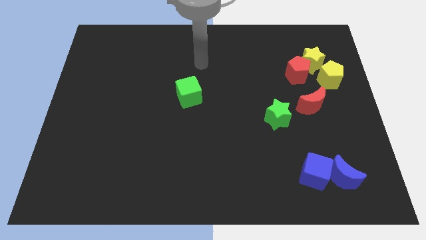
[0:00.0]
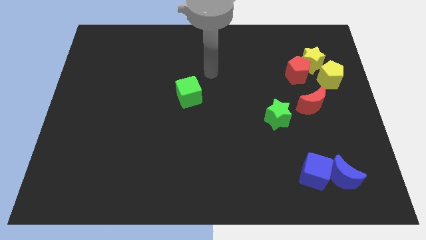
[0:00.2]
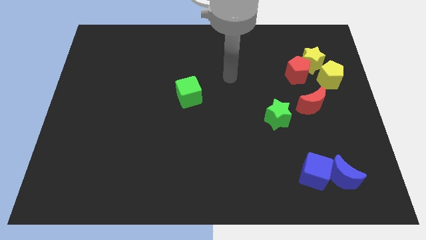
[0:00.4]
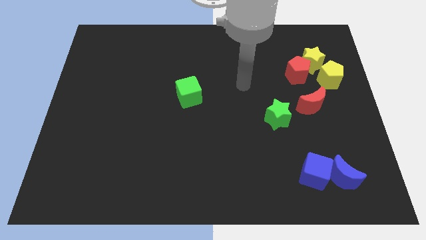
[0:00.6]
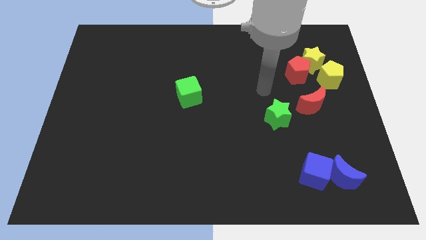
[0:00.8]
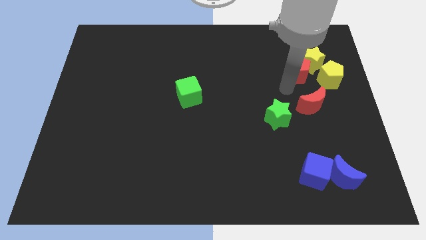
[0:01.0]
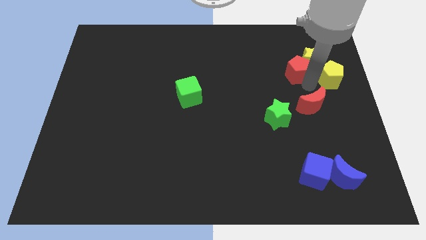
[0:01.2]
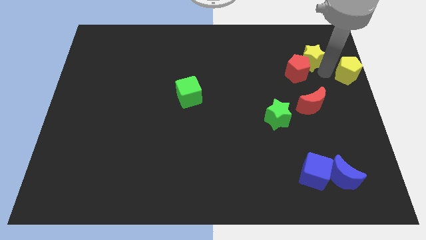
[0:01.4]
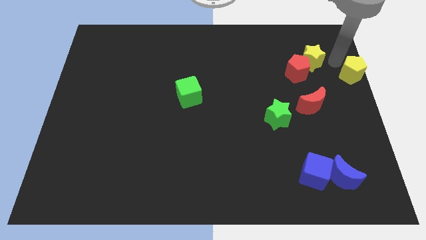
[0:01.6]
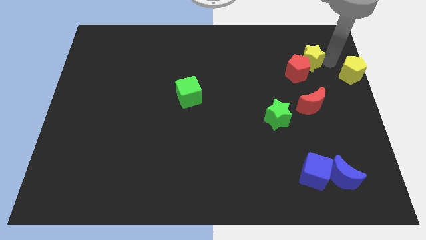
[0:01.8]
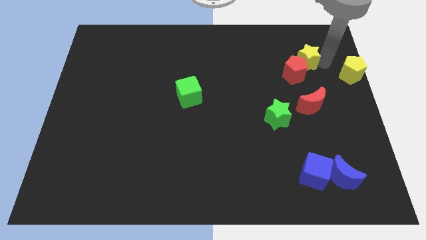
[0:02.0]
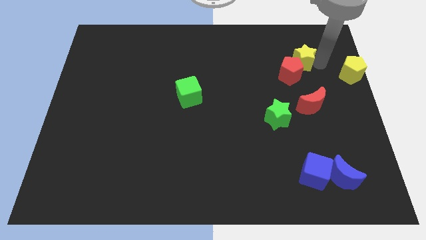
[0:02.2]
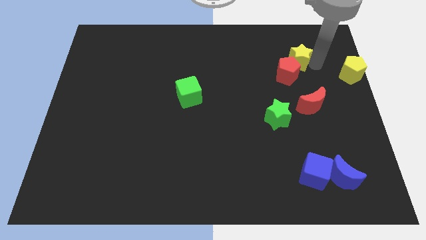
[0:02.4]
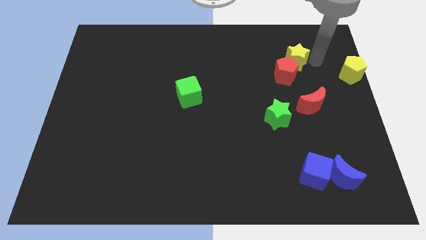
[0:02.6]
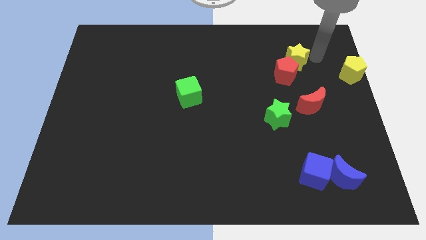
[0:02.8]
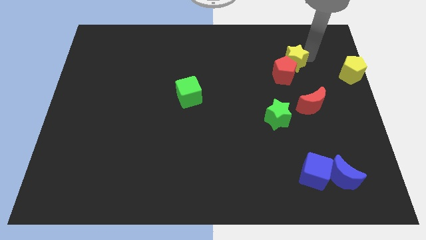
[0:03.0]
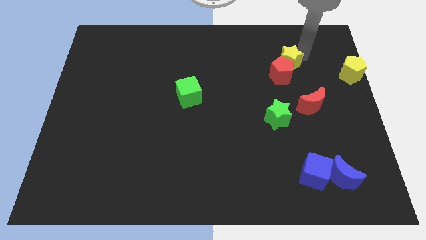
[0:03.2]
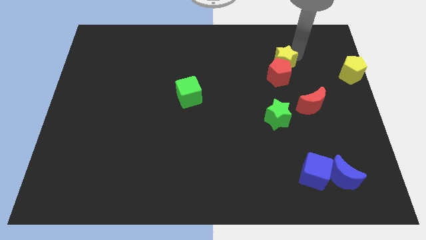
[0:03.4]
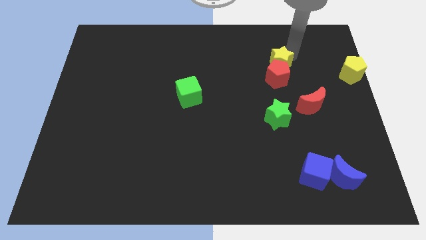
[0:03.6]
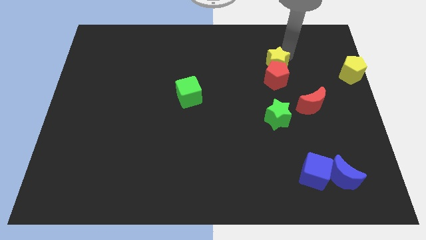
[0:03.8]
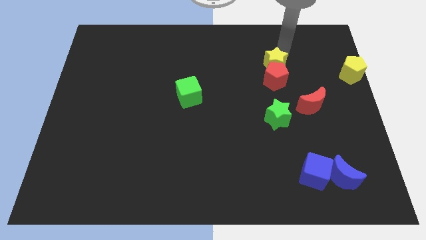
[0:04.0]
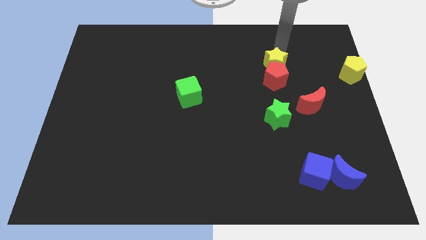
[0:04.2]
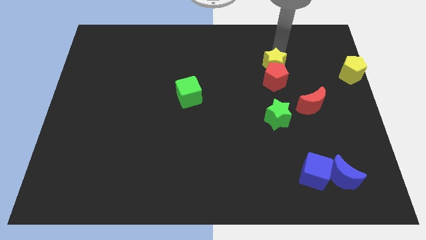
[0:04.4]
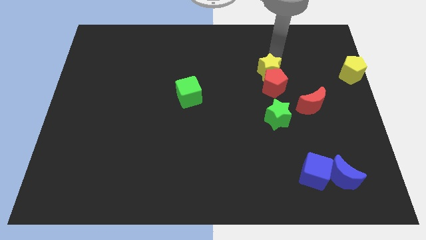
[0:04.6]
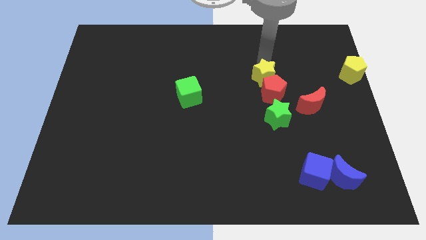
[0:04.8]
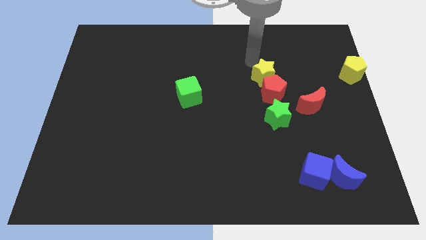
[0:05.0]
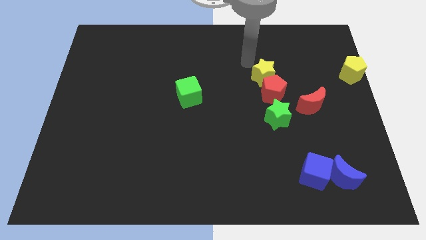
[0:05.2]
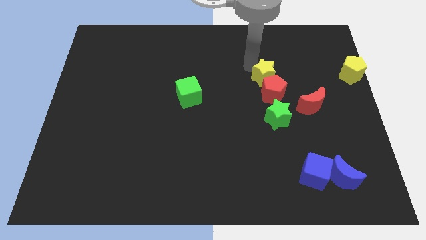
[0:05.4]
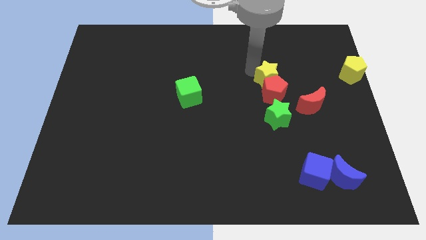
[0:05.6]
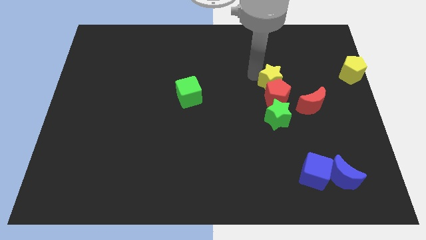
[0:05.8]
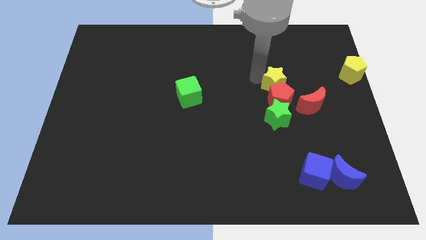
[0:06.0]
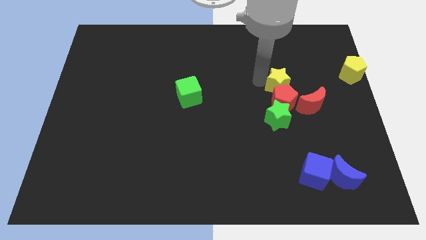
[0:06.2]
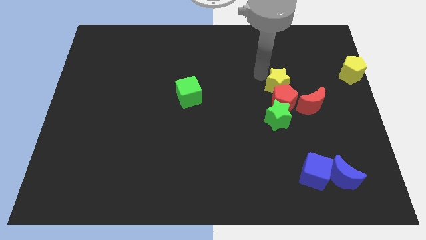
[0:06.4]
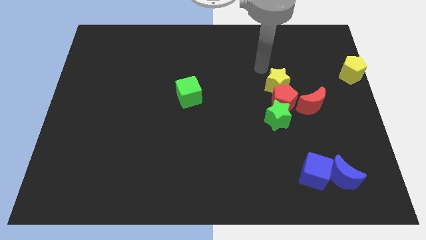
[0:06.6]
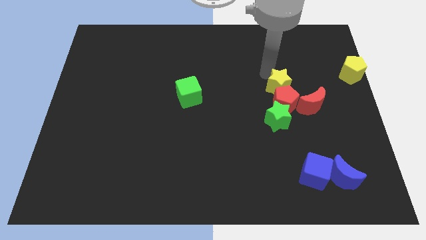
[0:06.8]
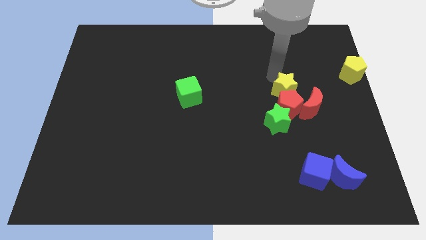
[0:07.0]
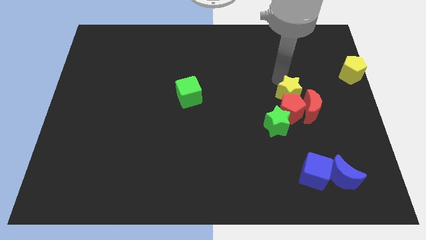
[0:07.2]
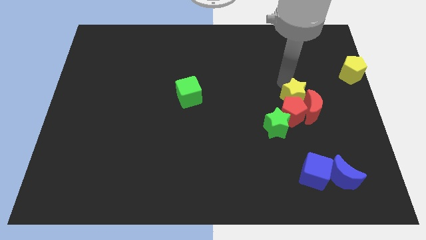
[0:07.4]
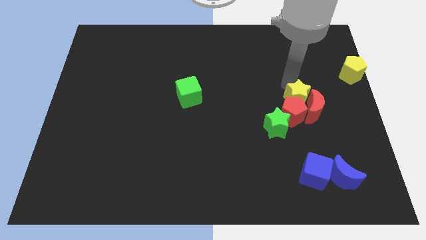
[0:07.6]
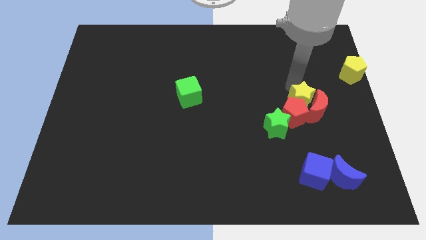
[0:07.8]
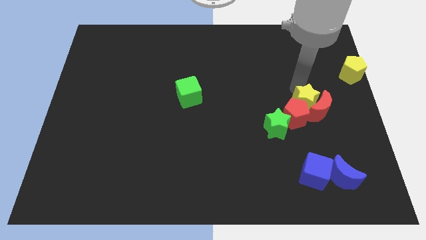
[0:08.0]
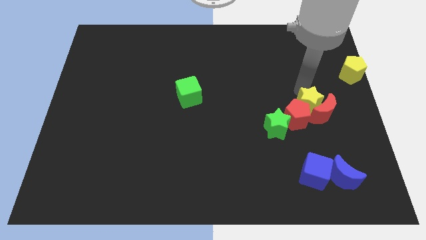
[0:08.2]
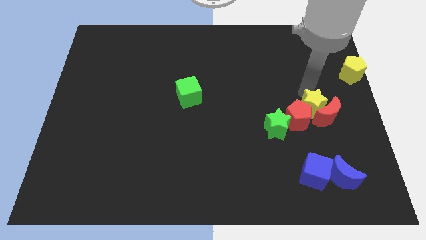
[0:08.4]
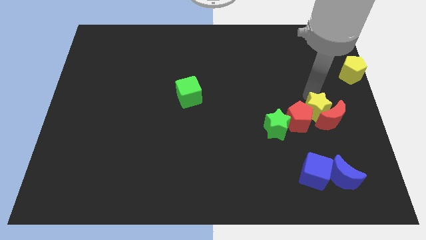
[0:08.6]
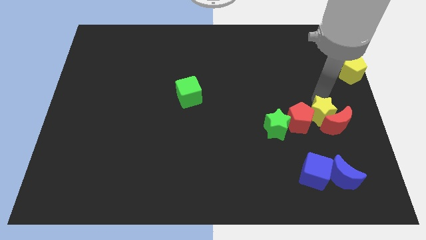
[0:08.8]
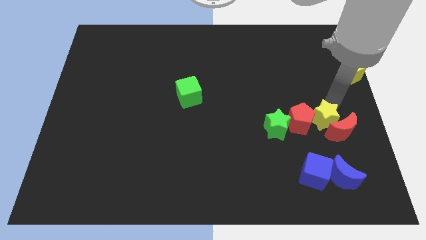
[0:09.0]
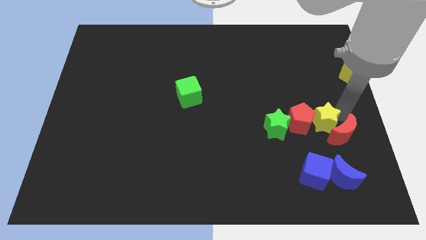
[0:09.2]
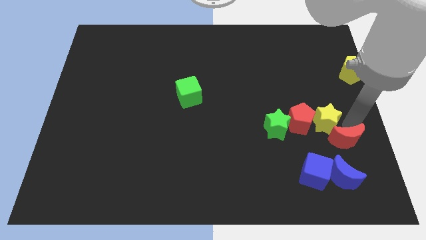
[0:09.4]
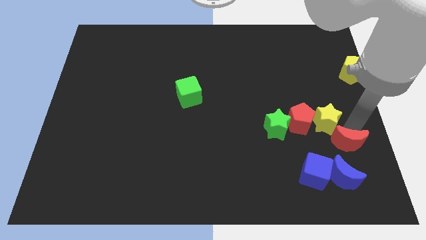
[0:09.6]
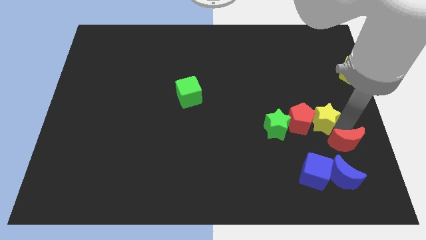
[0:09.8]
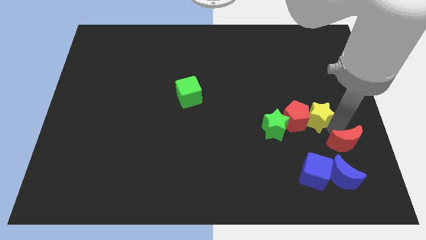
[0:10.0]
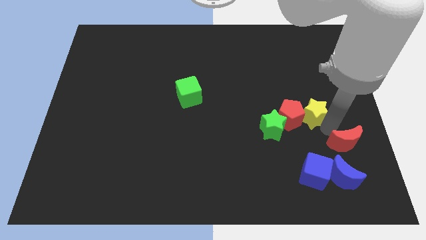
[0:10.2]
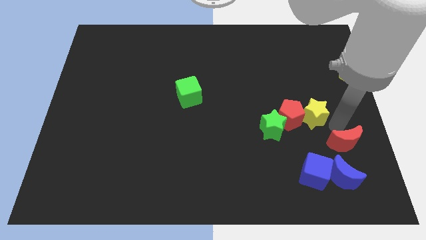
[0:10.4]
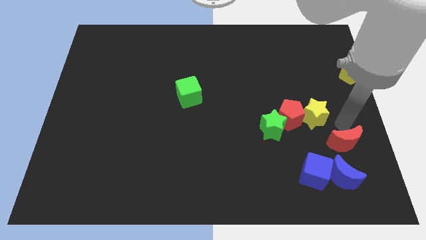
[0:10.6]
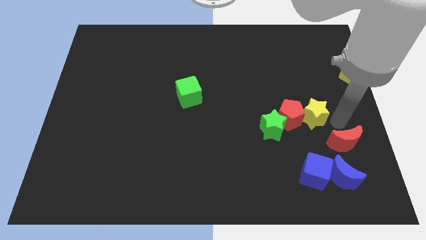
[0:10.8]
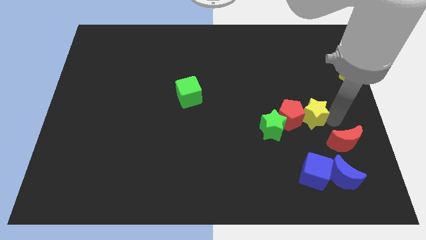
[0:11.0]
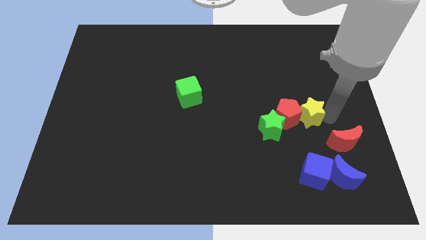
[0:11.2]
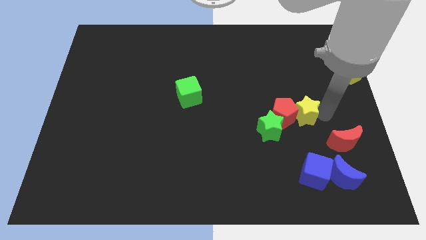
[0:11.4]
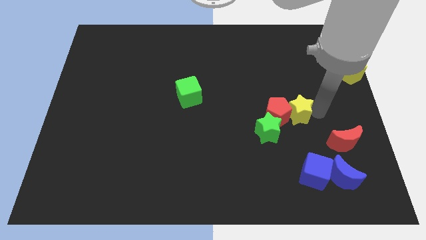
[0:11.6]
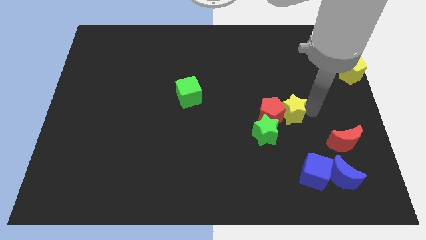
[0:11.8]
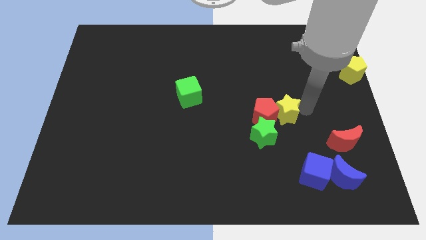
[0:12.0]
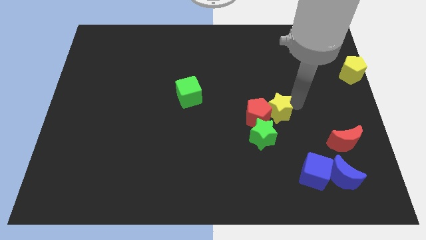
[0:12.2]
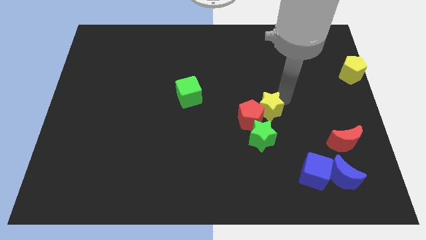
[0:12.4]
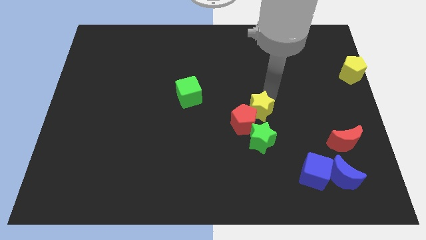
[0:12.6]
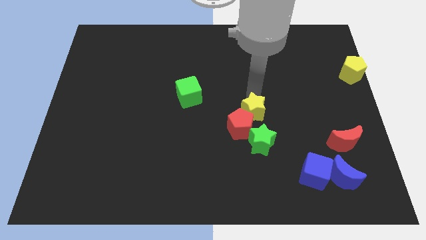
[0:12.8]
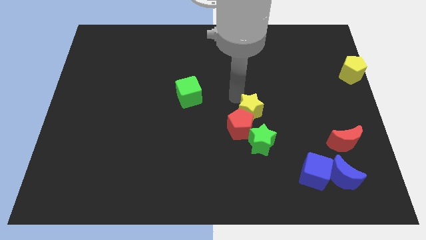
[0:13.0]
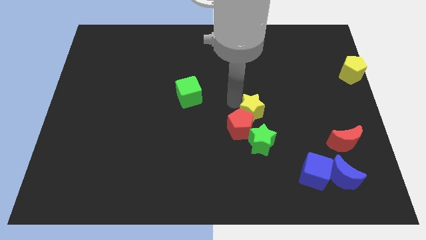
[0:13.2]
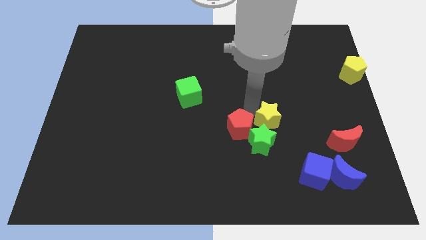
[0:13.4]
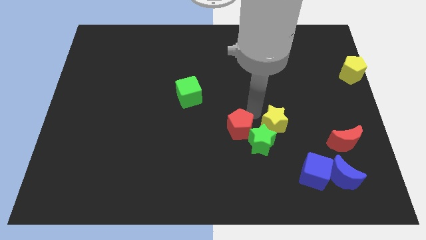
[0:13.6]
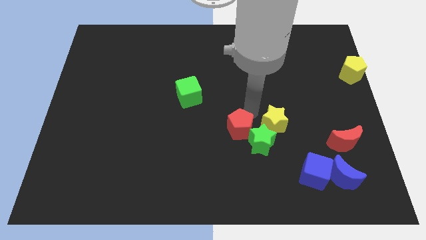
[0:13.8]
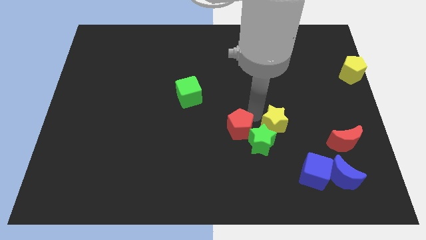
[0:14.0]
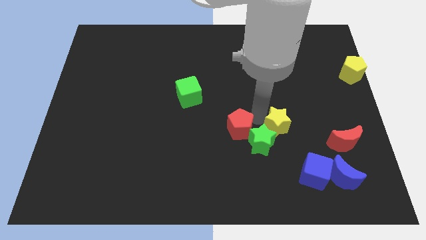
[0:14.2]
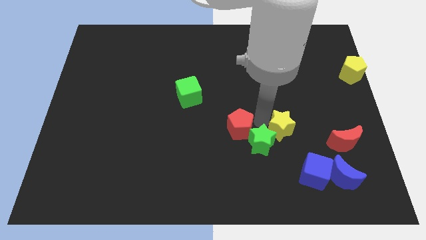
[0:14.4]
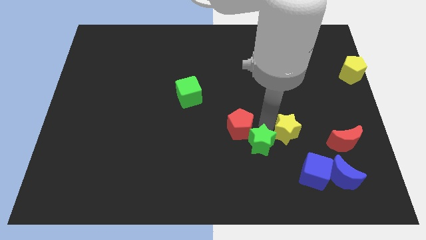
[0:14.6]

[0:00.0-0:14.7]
move the yellow star to the top left side of the blue cube
